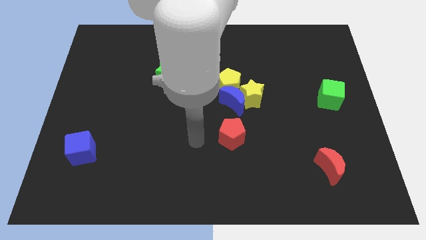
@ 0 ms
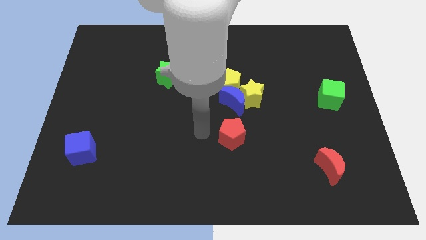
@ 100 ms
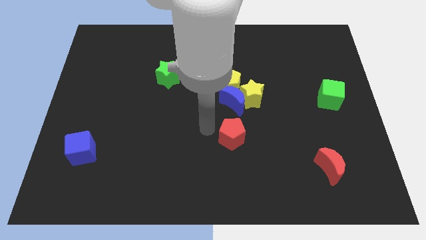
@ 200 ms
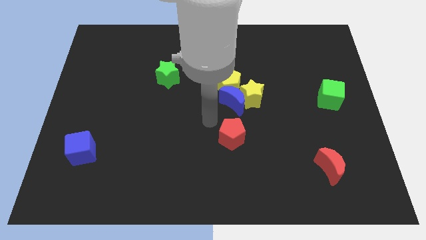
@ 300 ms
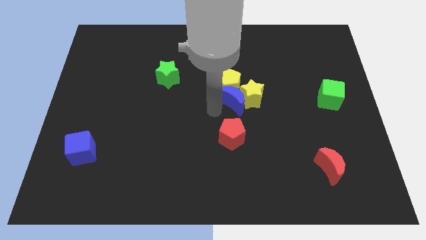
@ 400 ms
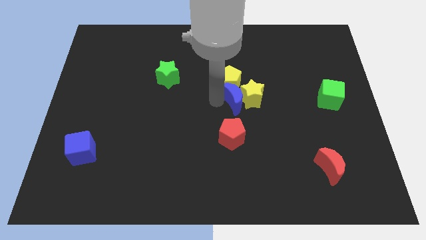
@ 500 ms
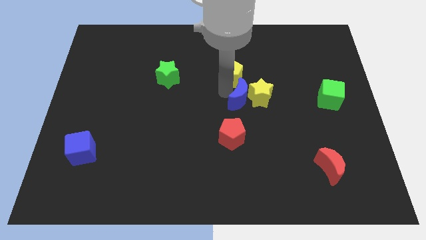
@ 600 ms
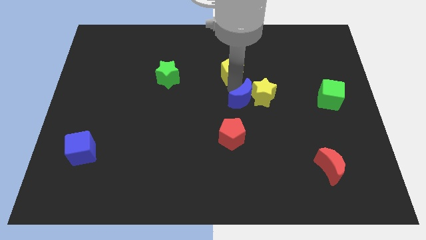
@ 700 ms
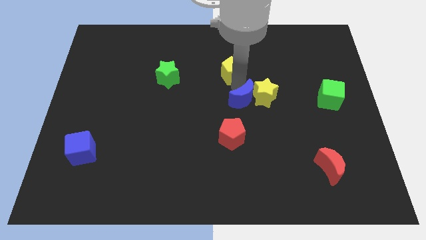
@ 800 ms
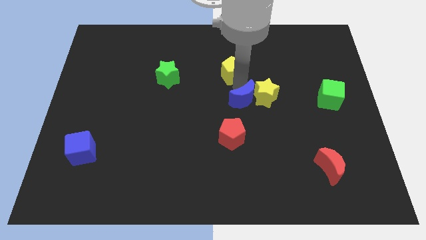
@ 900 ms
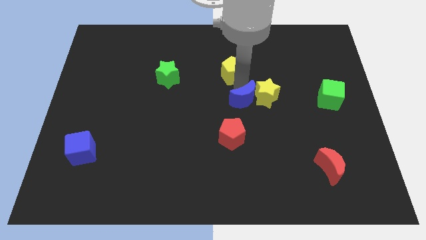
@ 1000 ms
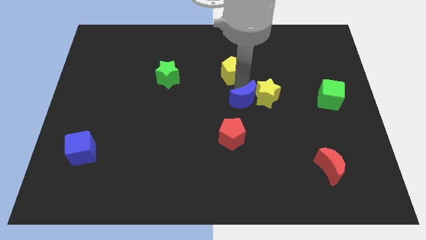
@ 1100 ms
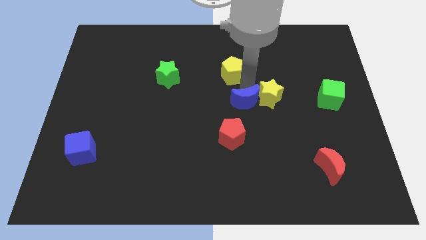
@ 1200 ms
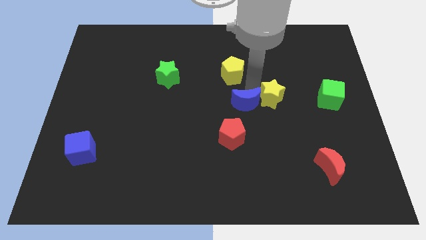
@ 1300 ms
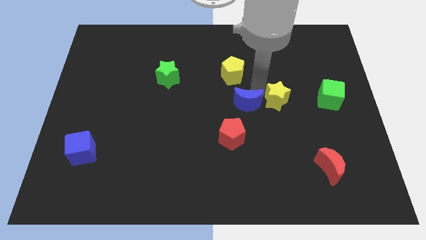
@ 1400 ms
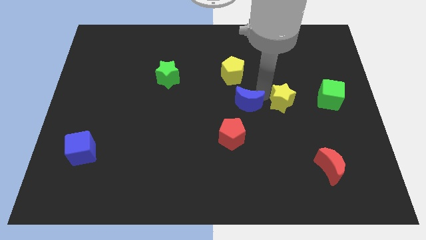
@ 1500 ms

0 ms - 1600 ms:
move the yellow star away from the blue moon and yellow pentagon

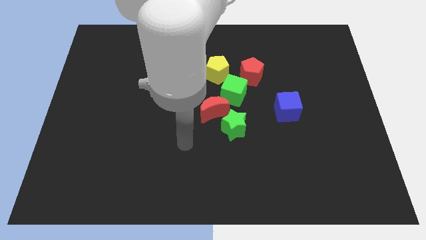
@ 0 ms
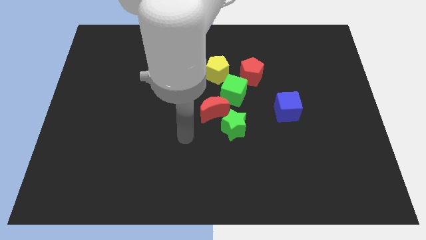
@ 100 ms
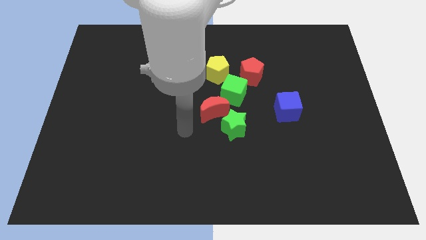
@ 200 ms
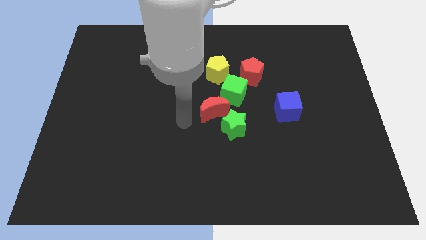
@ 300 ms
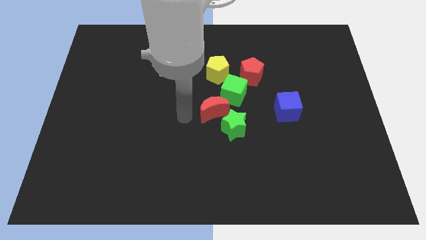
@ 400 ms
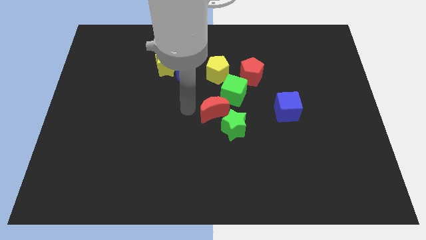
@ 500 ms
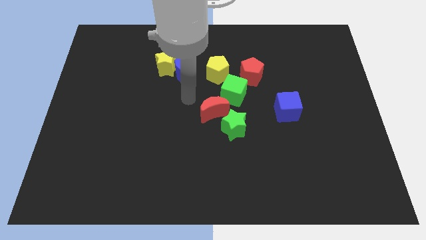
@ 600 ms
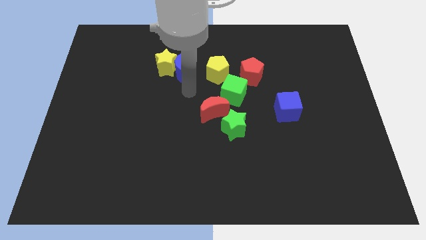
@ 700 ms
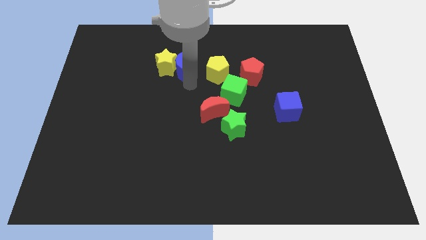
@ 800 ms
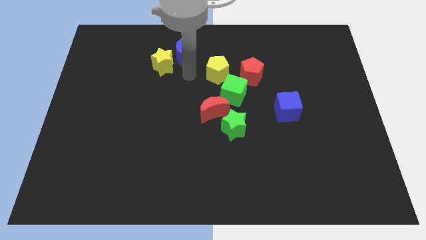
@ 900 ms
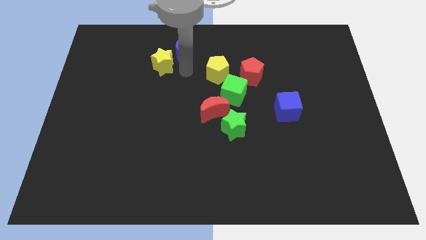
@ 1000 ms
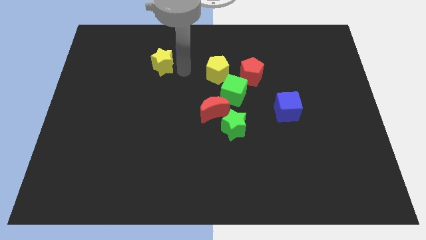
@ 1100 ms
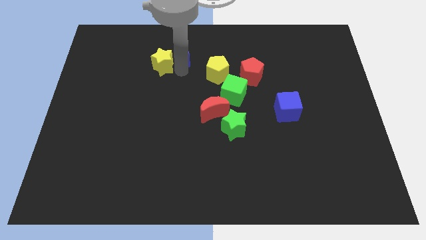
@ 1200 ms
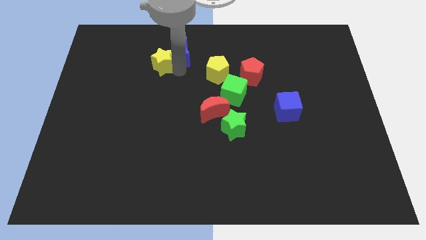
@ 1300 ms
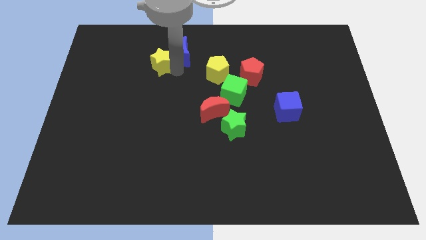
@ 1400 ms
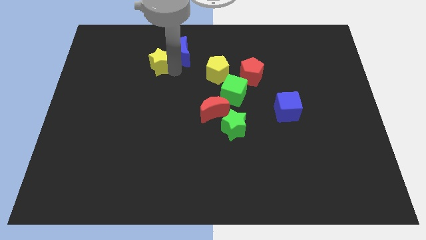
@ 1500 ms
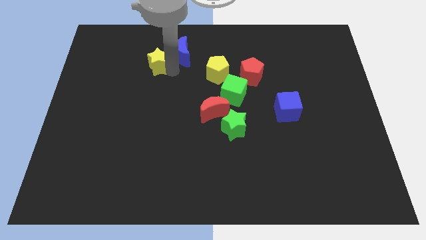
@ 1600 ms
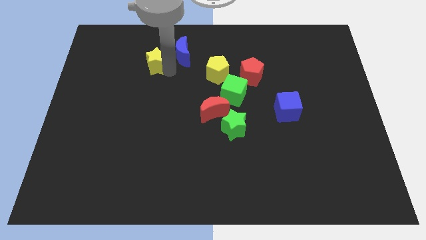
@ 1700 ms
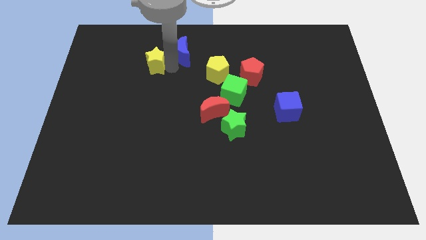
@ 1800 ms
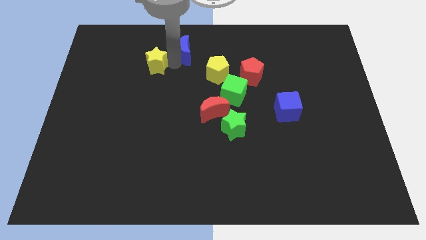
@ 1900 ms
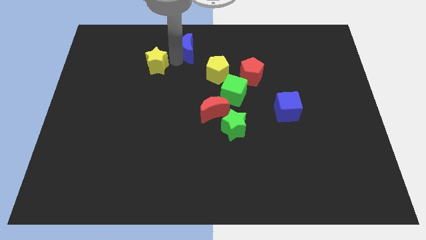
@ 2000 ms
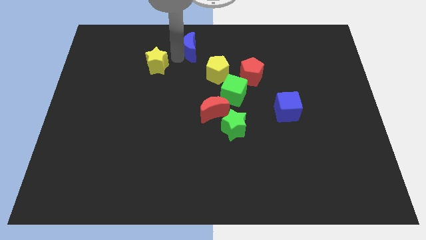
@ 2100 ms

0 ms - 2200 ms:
separate the yellow star from the blue moon

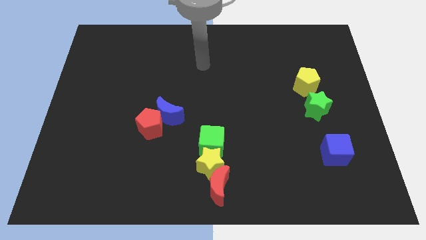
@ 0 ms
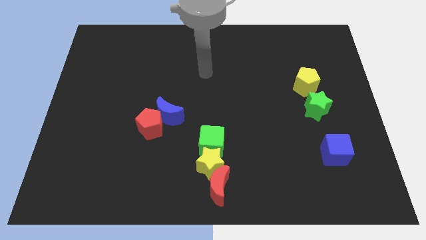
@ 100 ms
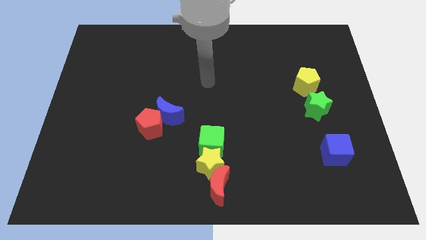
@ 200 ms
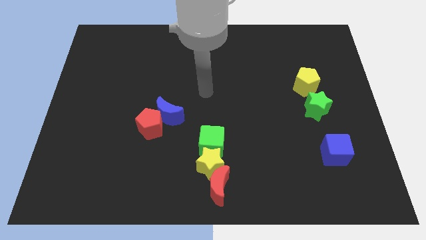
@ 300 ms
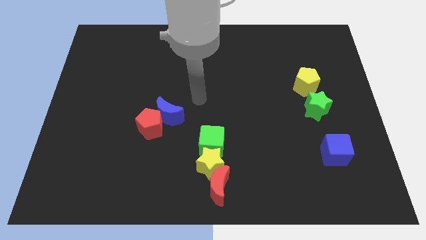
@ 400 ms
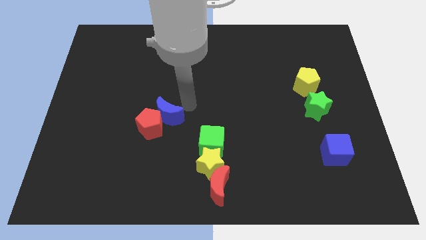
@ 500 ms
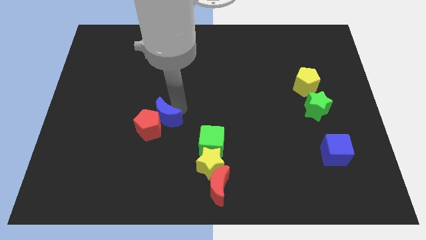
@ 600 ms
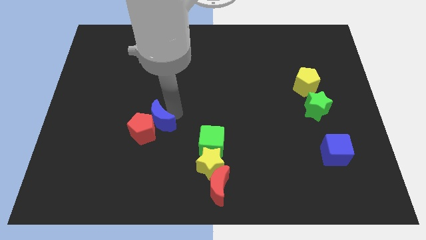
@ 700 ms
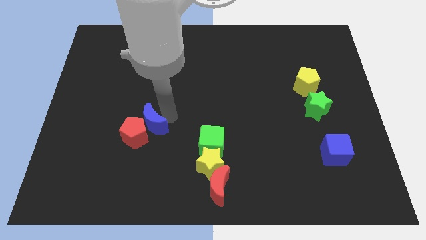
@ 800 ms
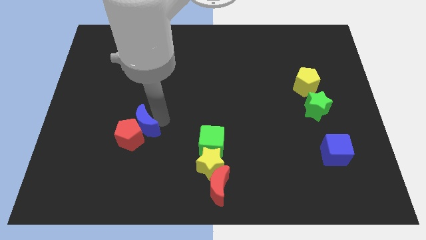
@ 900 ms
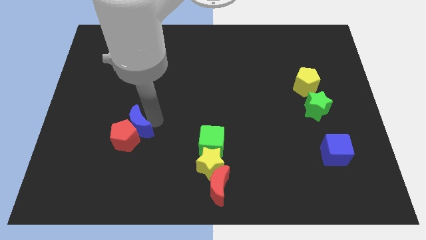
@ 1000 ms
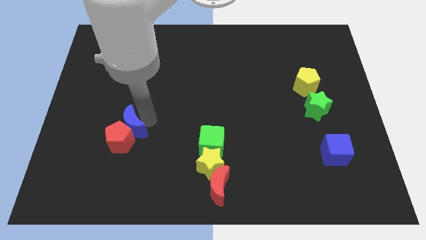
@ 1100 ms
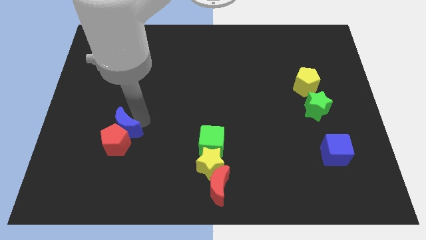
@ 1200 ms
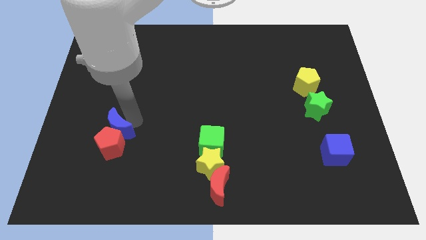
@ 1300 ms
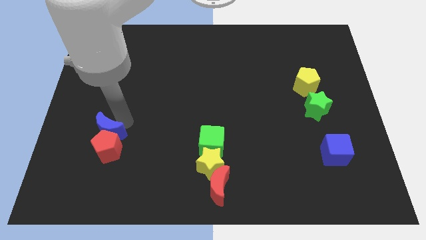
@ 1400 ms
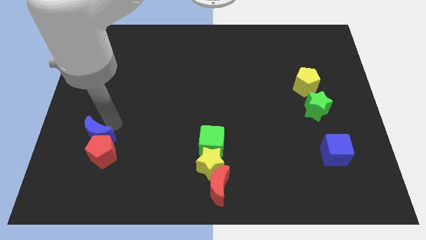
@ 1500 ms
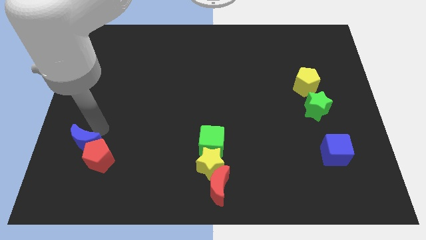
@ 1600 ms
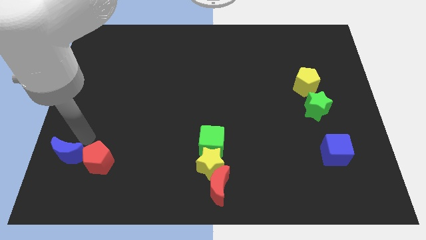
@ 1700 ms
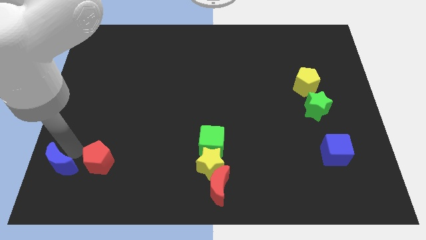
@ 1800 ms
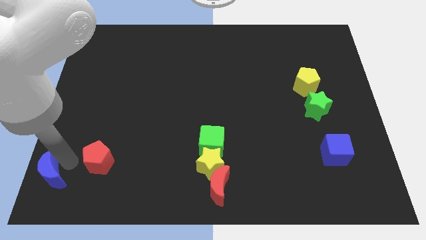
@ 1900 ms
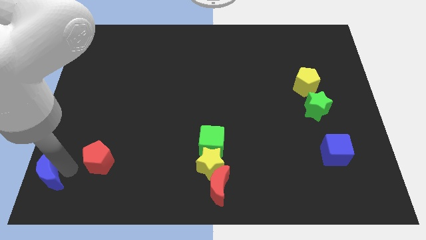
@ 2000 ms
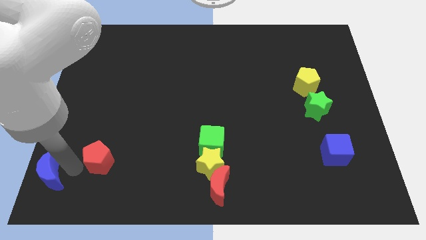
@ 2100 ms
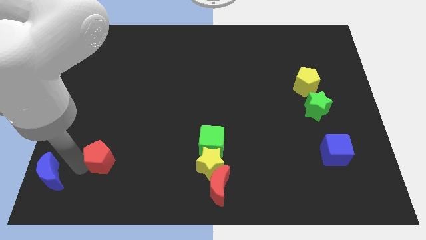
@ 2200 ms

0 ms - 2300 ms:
pull the red pentagon apart from the blue moon

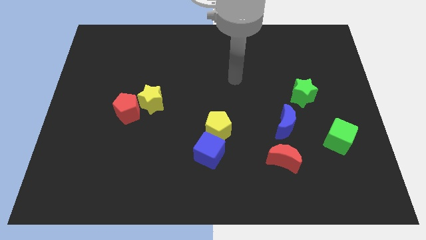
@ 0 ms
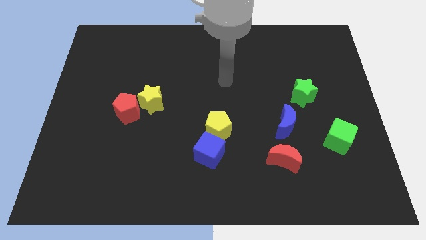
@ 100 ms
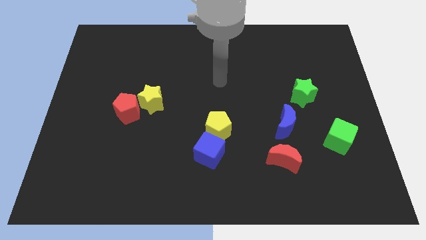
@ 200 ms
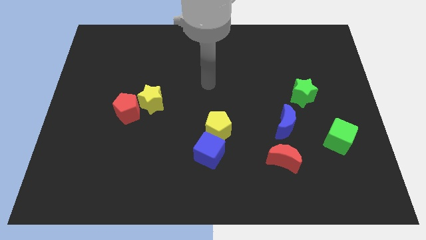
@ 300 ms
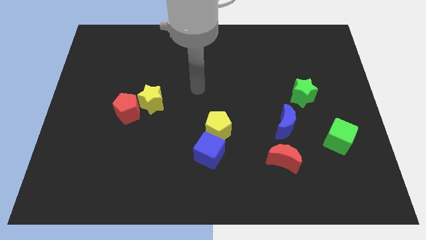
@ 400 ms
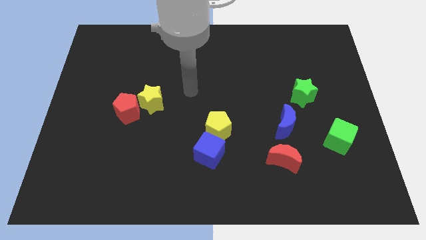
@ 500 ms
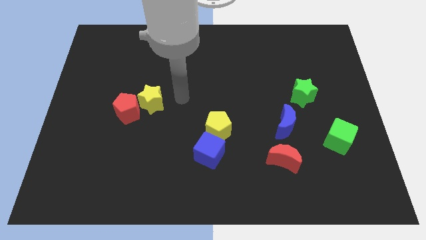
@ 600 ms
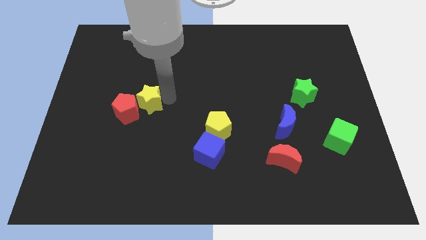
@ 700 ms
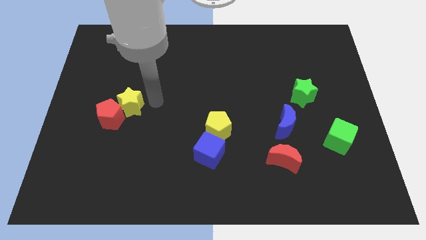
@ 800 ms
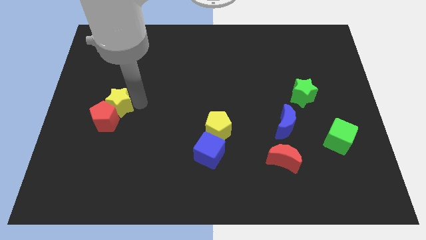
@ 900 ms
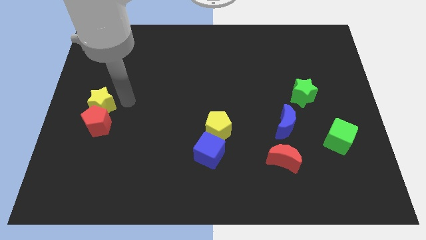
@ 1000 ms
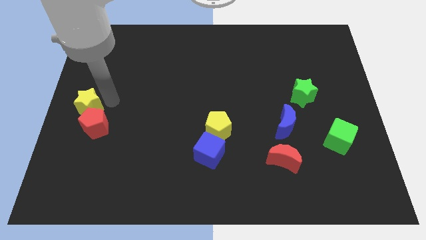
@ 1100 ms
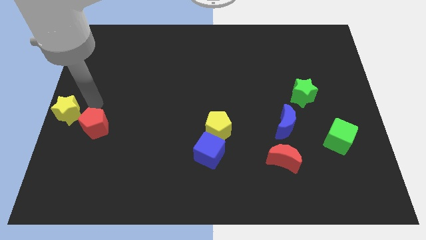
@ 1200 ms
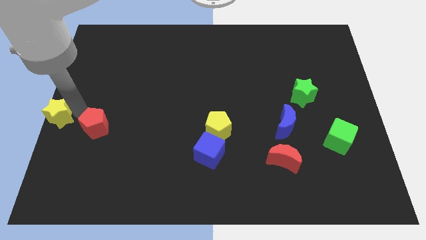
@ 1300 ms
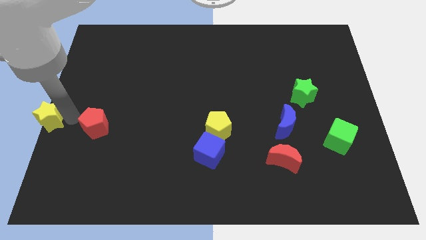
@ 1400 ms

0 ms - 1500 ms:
move the red pentagon away from the yellow star

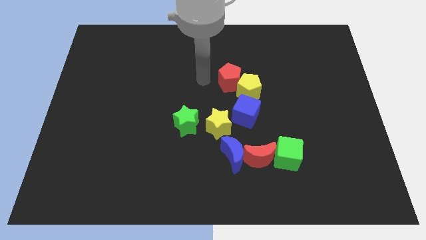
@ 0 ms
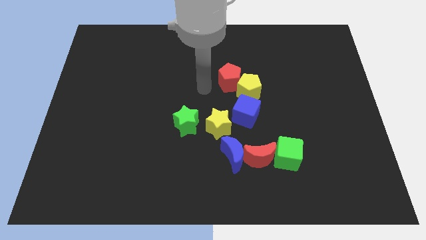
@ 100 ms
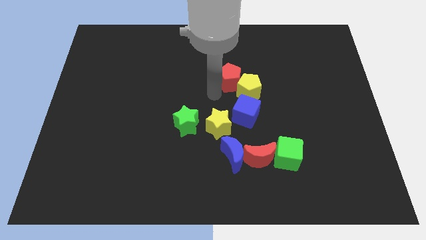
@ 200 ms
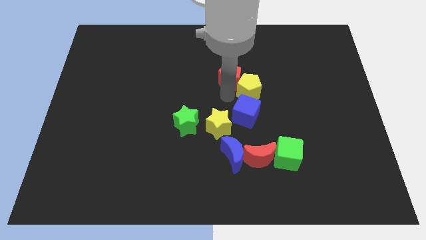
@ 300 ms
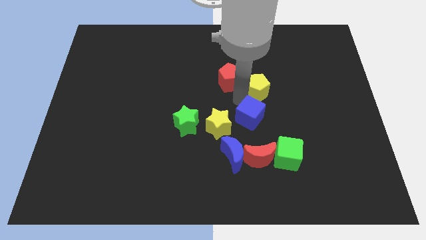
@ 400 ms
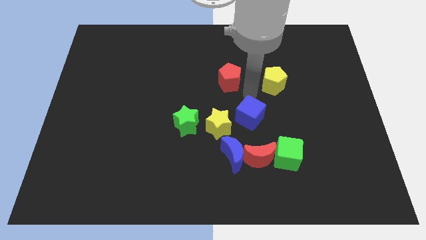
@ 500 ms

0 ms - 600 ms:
move the red pentagon away from the yellow pentagon

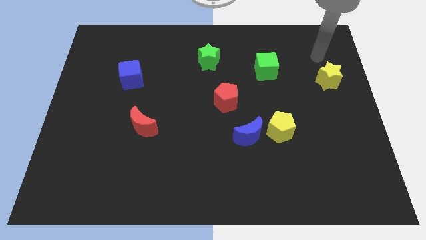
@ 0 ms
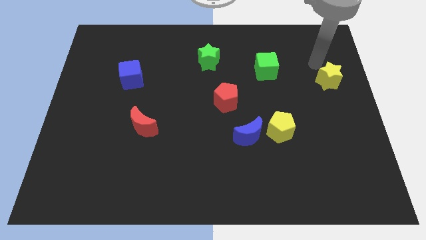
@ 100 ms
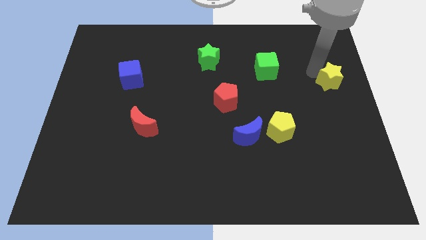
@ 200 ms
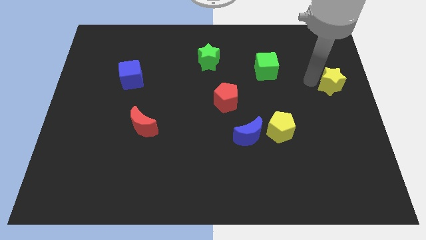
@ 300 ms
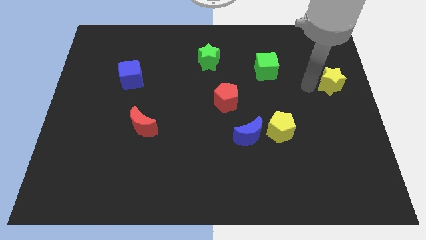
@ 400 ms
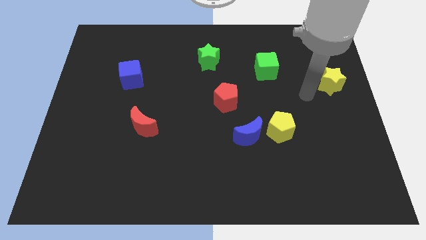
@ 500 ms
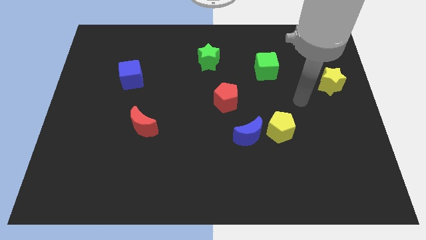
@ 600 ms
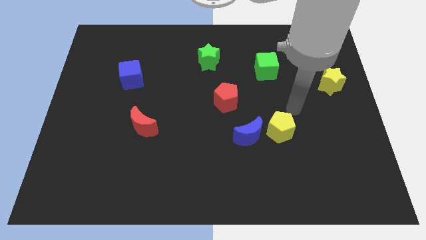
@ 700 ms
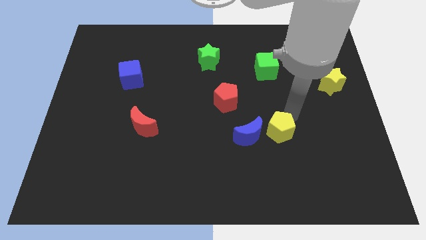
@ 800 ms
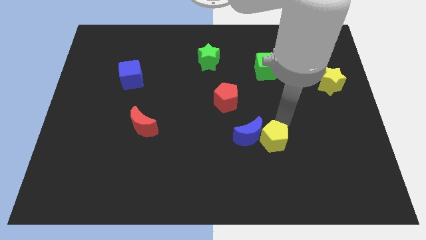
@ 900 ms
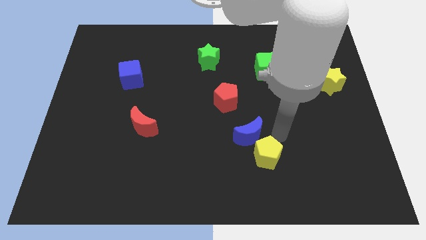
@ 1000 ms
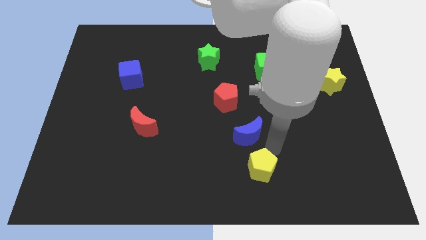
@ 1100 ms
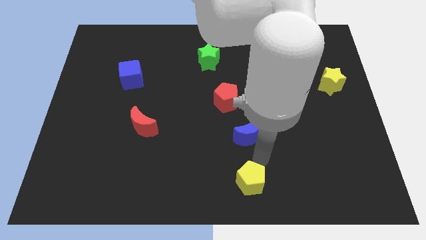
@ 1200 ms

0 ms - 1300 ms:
separate the blue moon from the yellow pentagon
